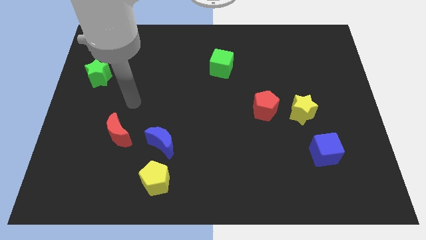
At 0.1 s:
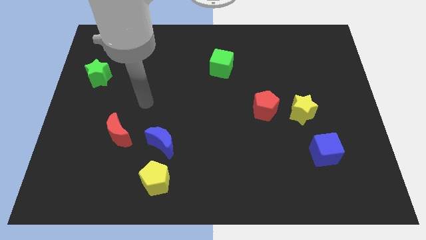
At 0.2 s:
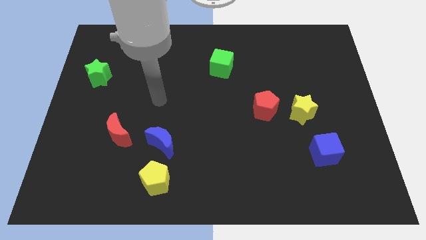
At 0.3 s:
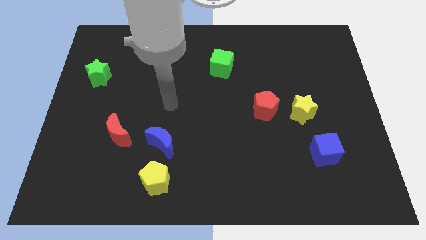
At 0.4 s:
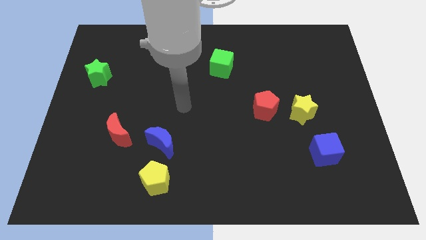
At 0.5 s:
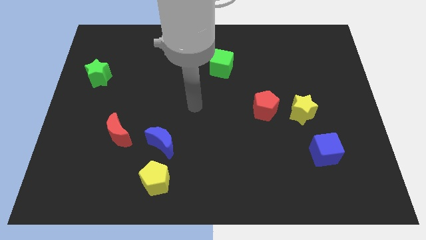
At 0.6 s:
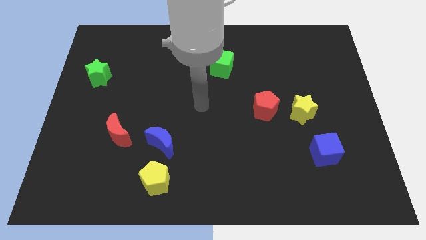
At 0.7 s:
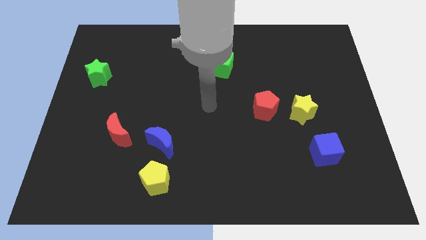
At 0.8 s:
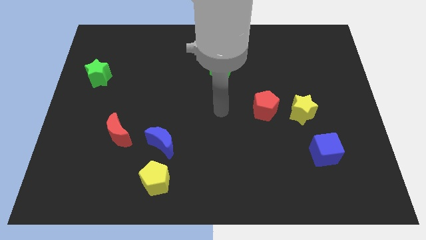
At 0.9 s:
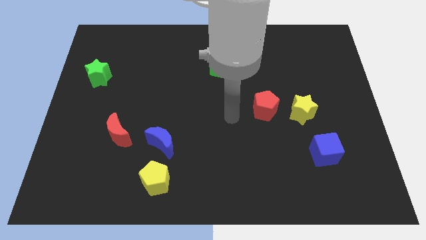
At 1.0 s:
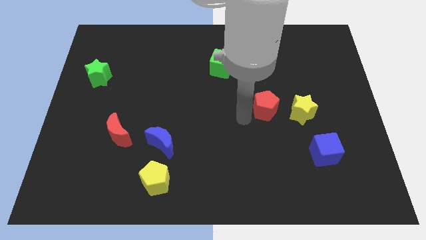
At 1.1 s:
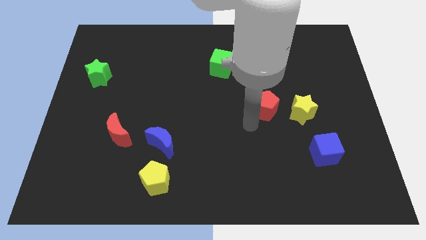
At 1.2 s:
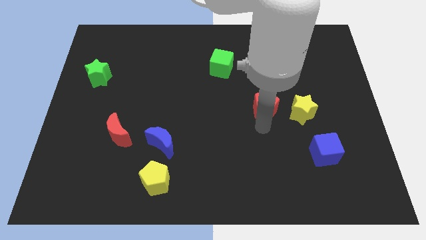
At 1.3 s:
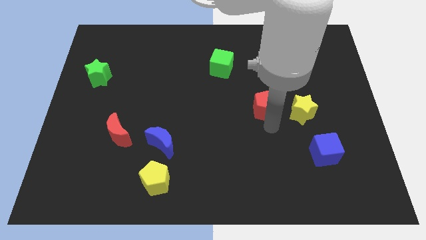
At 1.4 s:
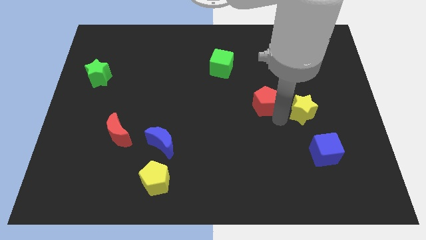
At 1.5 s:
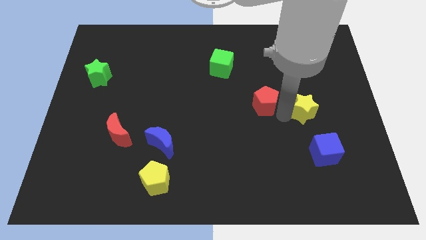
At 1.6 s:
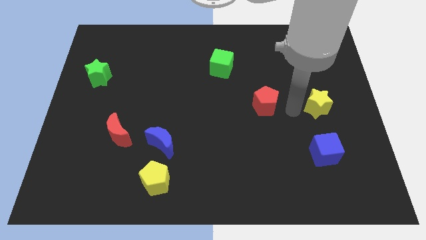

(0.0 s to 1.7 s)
separate the red pentagon from the yellow star

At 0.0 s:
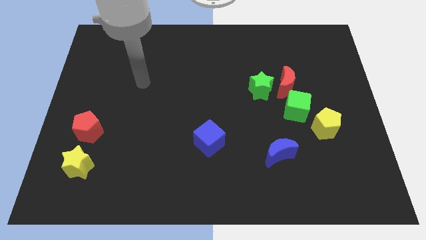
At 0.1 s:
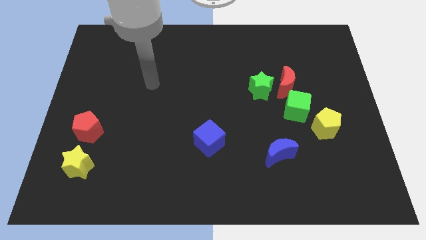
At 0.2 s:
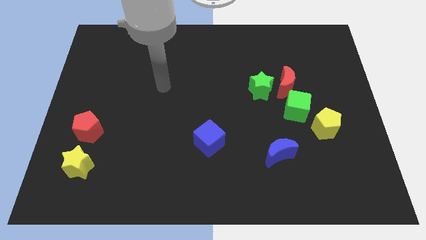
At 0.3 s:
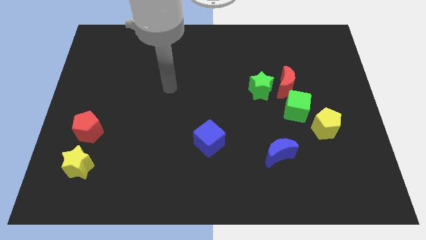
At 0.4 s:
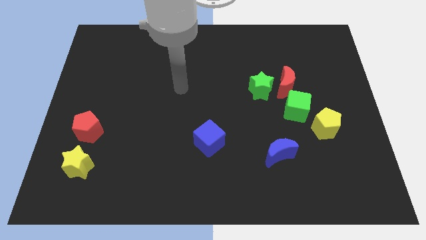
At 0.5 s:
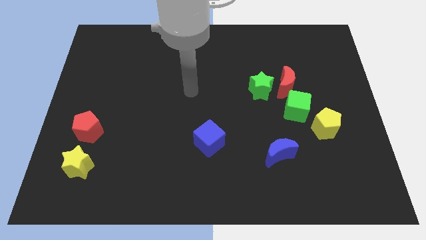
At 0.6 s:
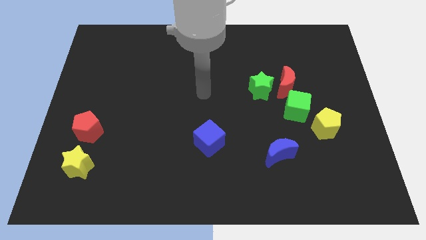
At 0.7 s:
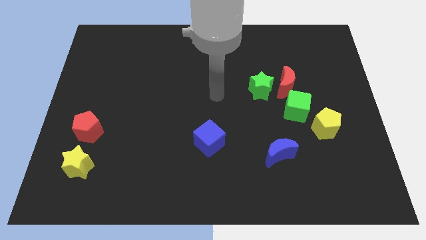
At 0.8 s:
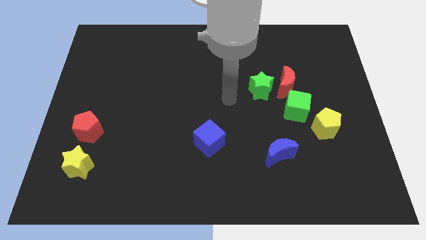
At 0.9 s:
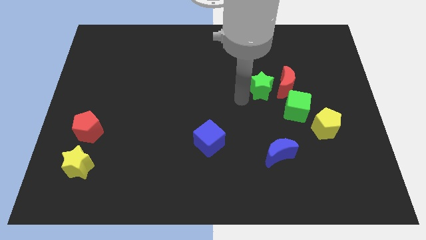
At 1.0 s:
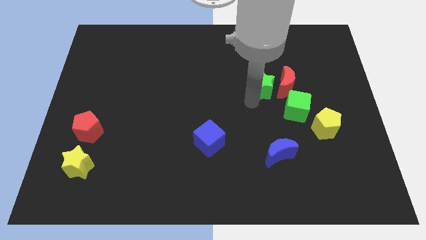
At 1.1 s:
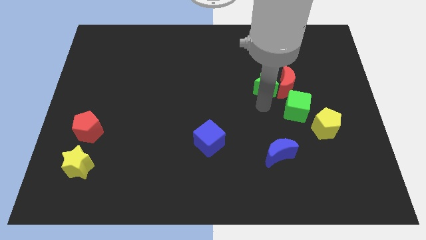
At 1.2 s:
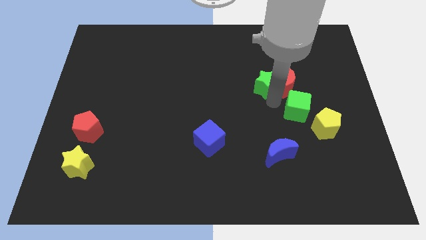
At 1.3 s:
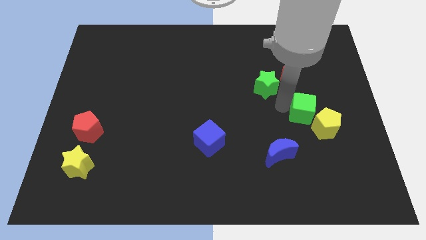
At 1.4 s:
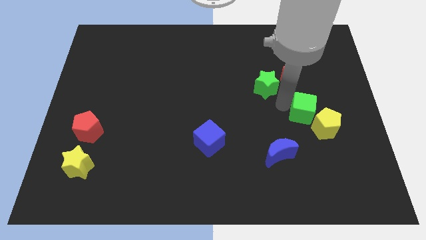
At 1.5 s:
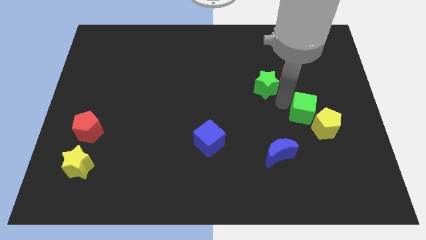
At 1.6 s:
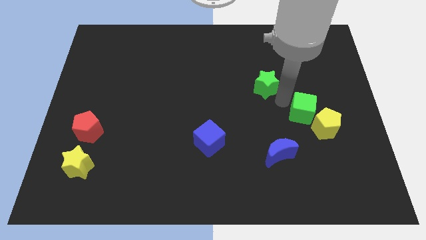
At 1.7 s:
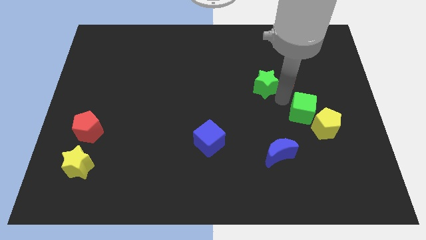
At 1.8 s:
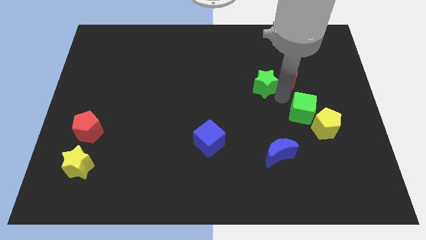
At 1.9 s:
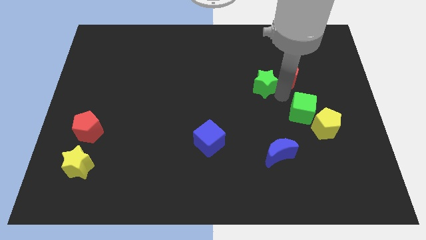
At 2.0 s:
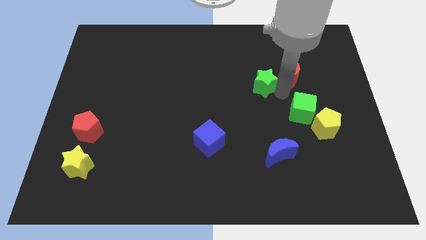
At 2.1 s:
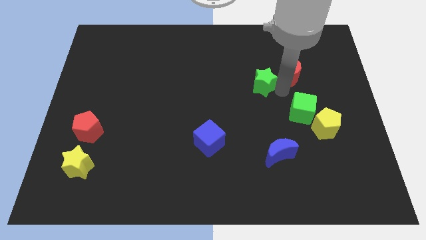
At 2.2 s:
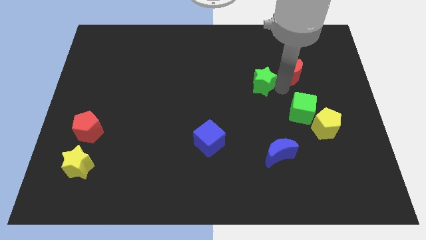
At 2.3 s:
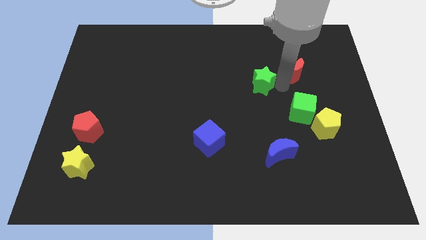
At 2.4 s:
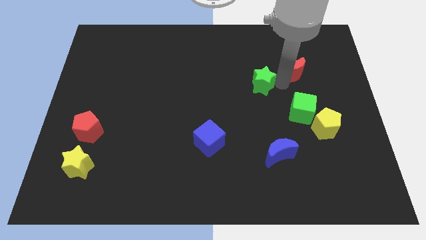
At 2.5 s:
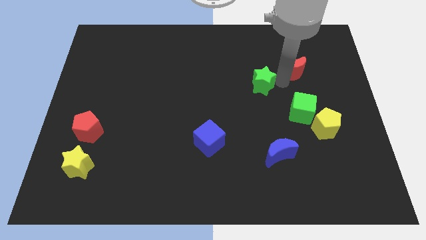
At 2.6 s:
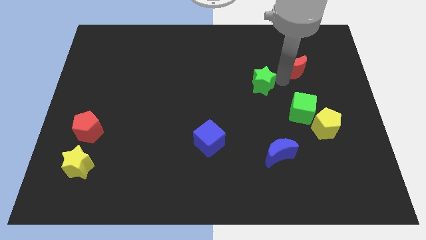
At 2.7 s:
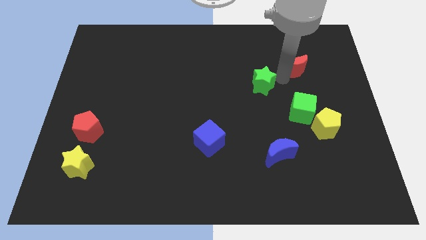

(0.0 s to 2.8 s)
pull the red moon apart from the green star and green cube

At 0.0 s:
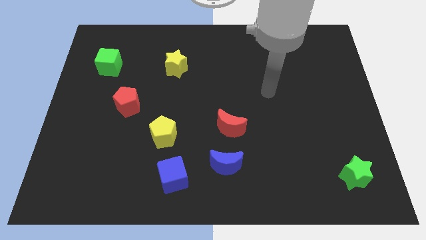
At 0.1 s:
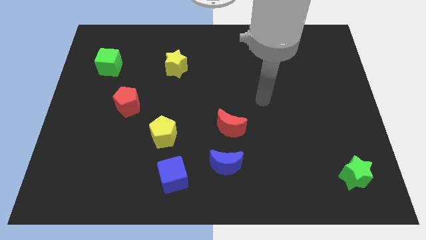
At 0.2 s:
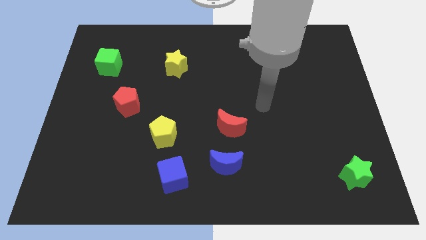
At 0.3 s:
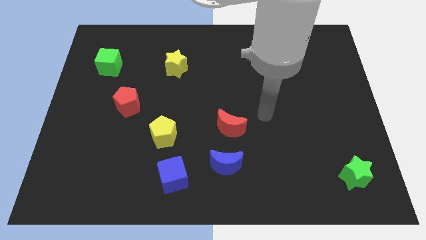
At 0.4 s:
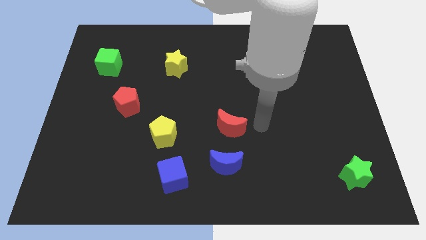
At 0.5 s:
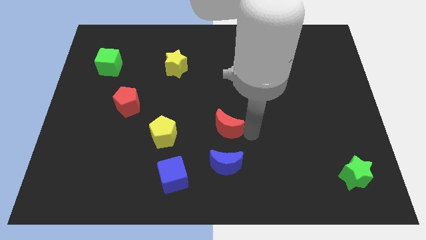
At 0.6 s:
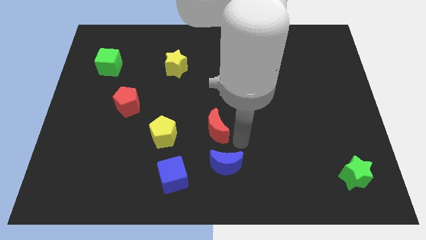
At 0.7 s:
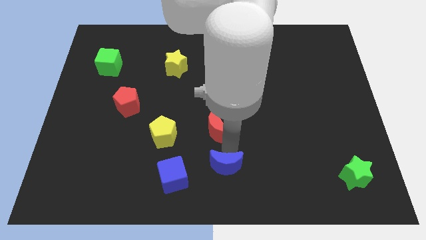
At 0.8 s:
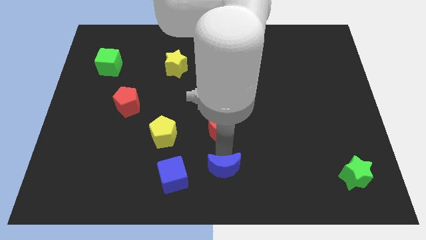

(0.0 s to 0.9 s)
pull the red moon apart from the blue moon

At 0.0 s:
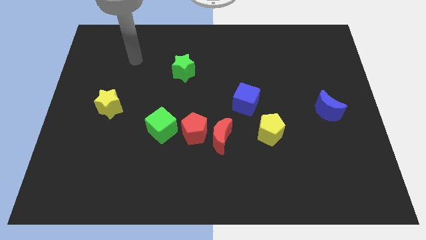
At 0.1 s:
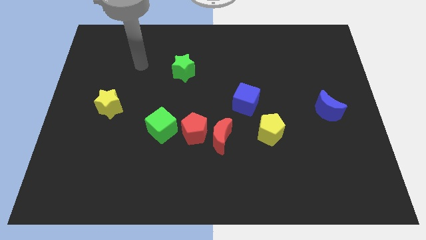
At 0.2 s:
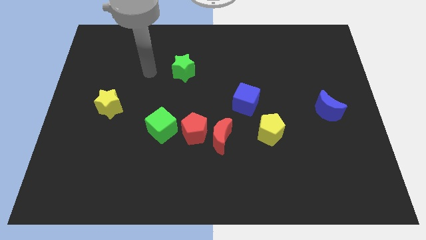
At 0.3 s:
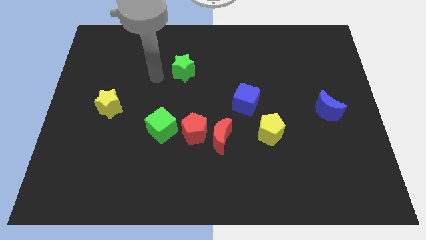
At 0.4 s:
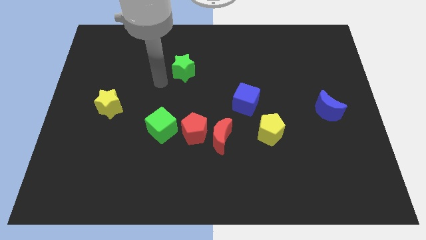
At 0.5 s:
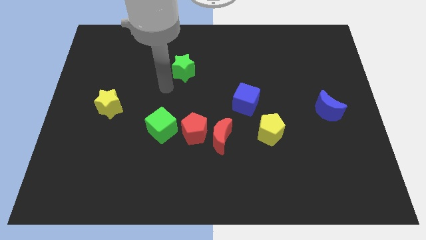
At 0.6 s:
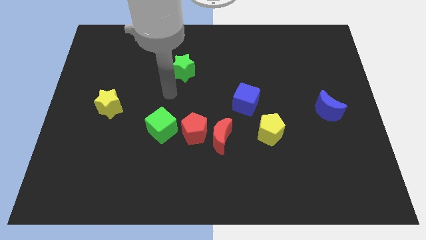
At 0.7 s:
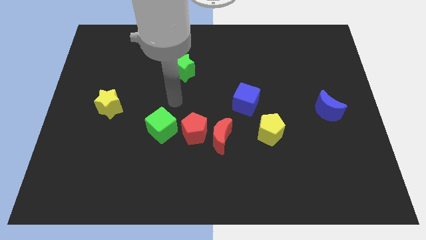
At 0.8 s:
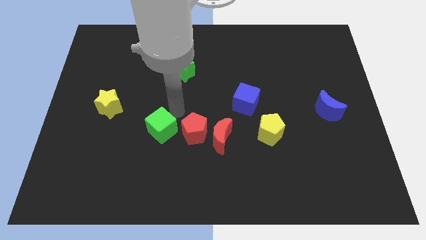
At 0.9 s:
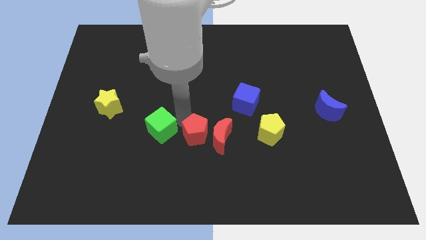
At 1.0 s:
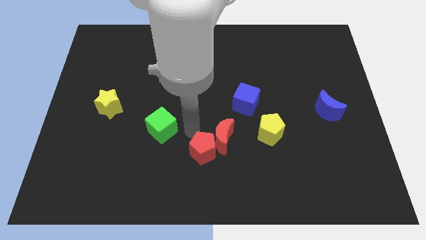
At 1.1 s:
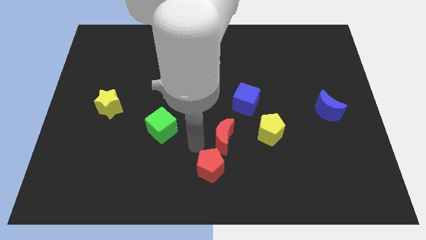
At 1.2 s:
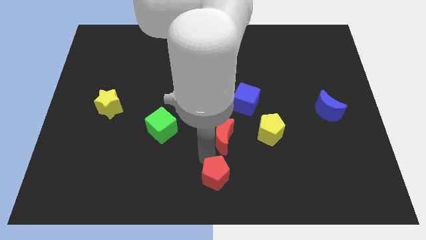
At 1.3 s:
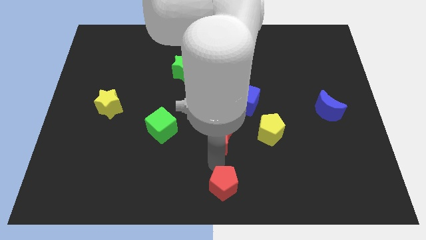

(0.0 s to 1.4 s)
move the red moon away from the red pentagon

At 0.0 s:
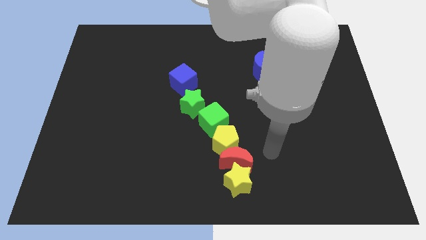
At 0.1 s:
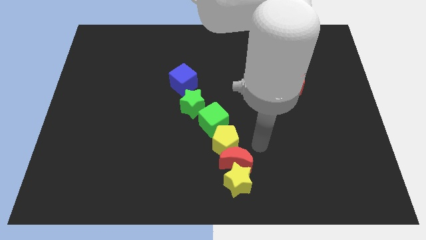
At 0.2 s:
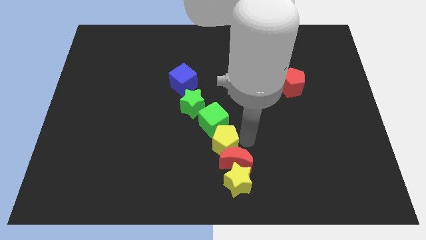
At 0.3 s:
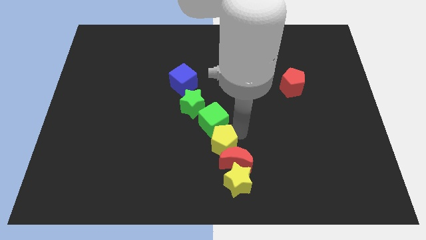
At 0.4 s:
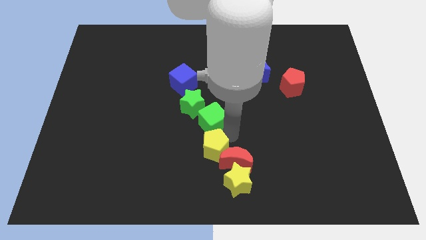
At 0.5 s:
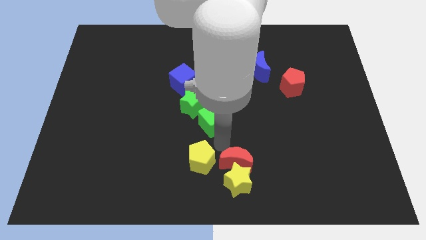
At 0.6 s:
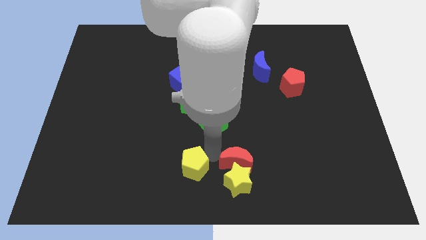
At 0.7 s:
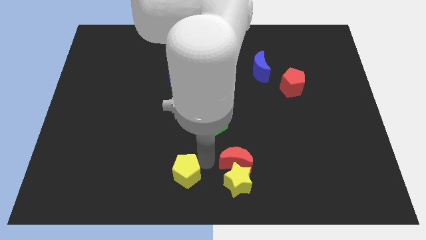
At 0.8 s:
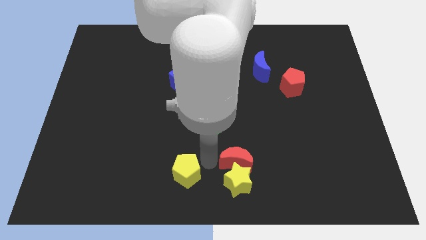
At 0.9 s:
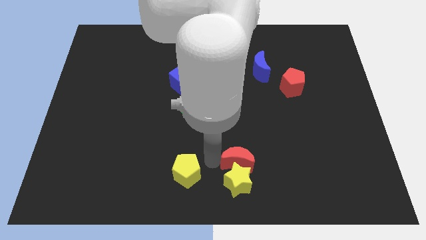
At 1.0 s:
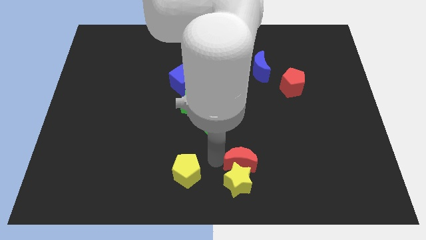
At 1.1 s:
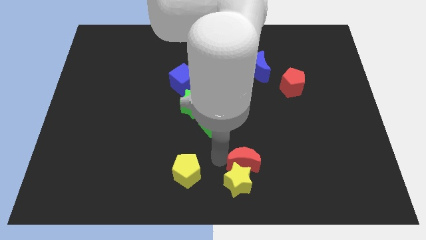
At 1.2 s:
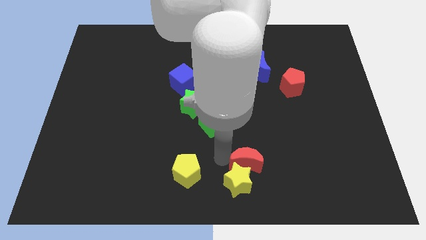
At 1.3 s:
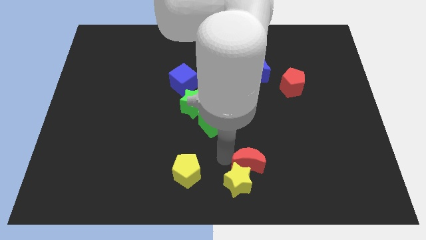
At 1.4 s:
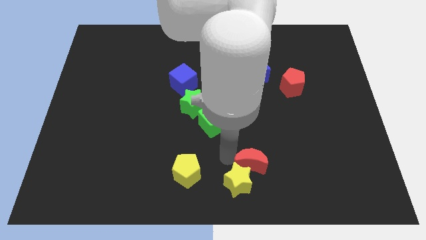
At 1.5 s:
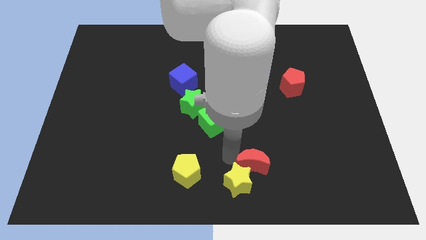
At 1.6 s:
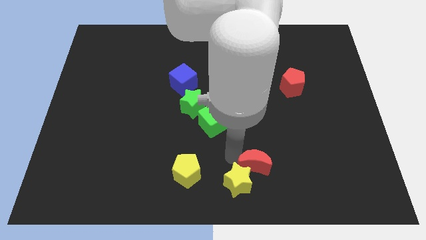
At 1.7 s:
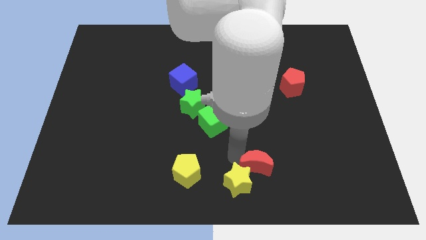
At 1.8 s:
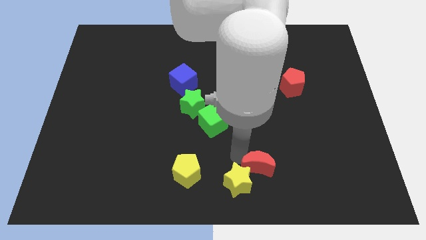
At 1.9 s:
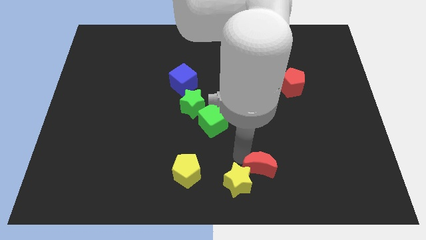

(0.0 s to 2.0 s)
pull the red moon apart from the yellow star and yellow pentagon

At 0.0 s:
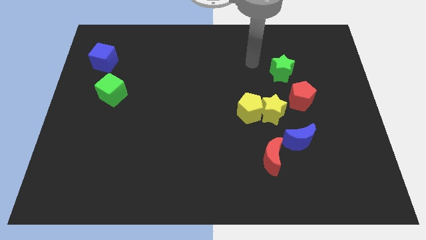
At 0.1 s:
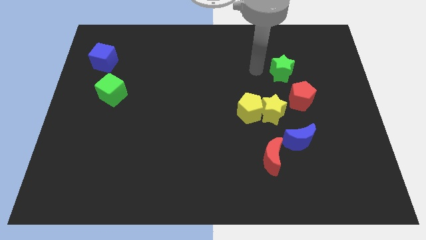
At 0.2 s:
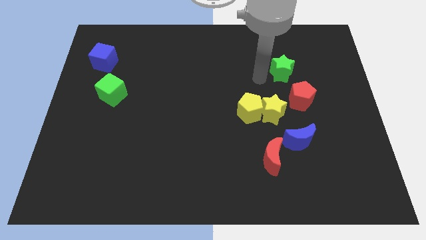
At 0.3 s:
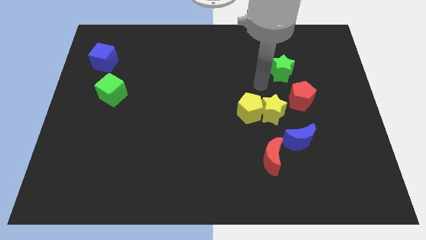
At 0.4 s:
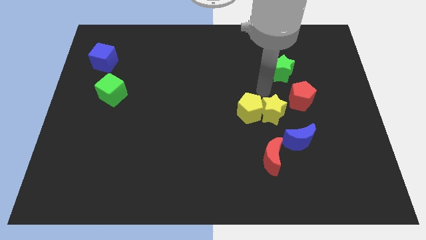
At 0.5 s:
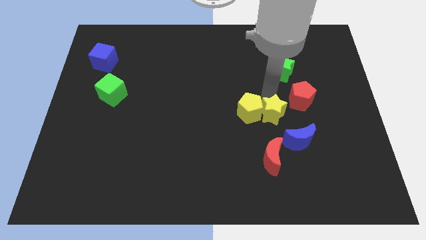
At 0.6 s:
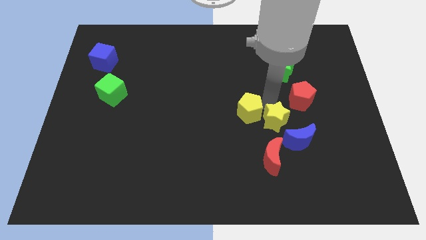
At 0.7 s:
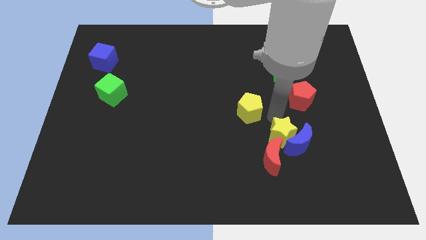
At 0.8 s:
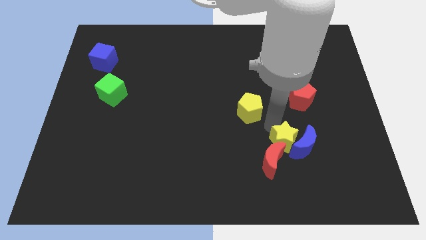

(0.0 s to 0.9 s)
separate the yellow pentagon from the yellow star
